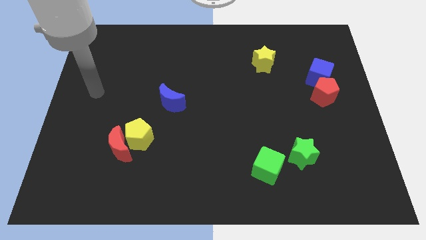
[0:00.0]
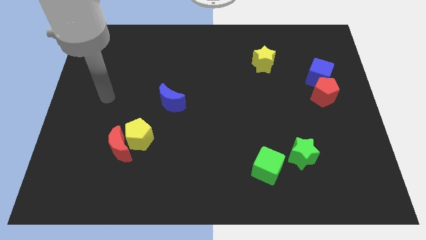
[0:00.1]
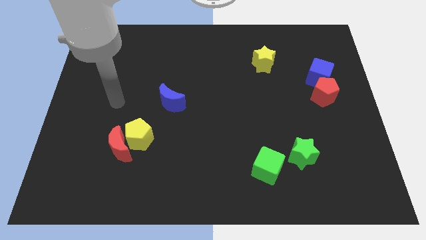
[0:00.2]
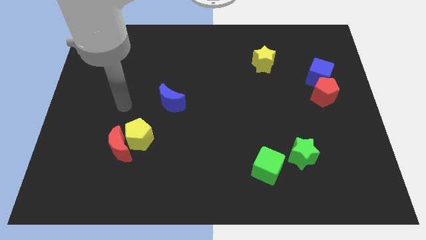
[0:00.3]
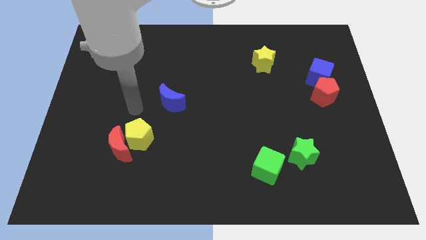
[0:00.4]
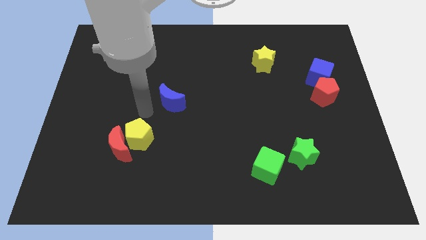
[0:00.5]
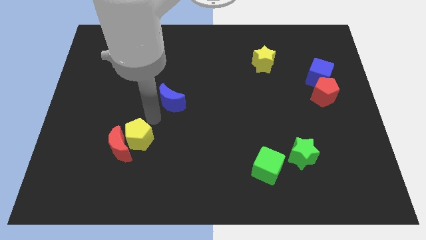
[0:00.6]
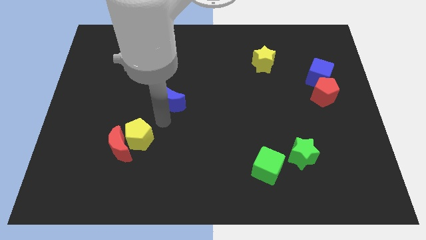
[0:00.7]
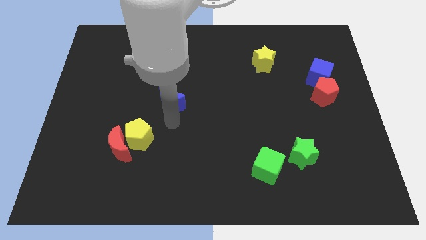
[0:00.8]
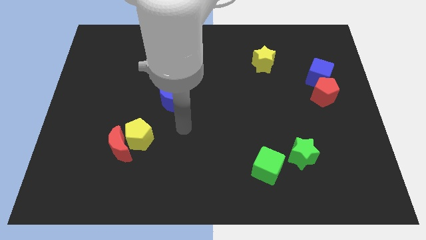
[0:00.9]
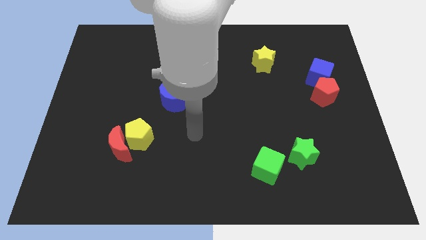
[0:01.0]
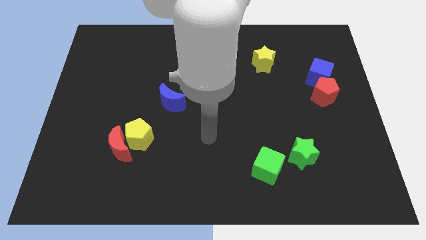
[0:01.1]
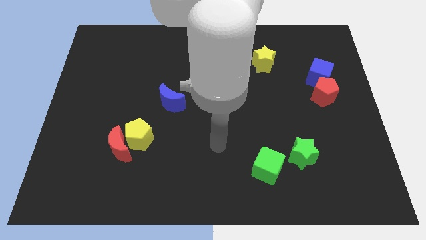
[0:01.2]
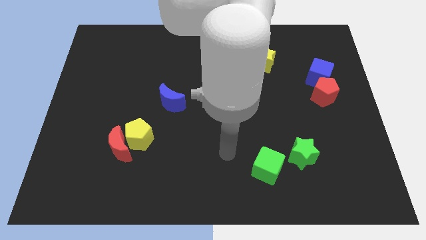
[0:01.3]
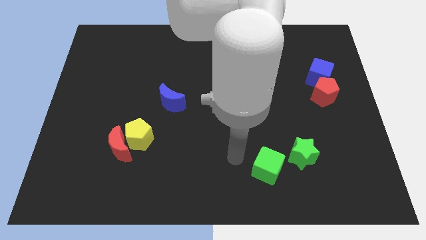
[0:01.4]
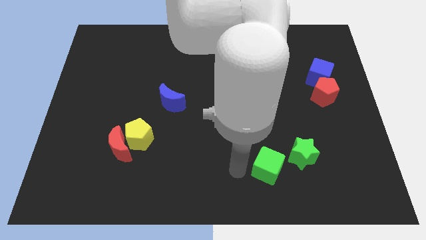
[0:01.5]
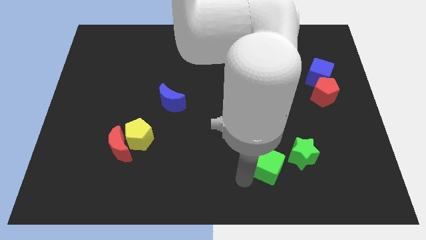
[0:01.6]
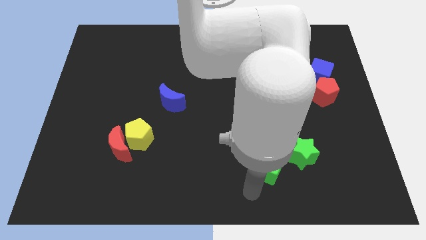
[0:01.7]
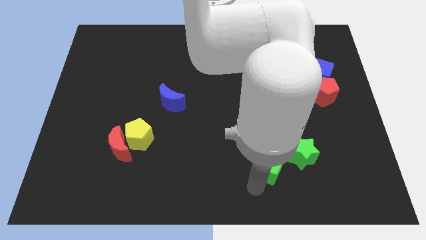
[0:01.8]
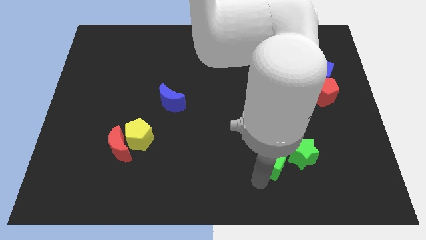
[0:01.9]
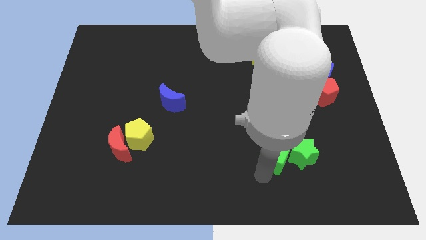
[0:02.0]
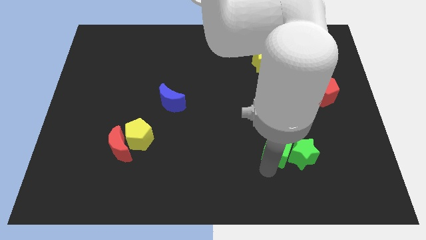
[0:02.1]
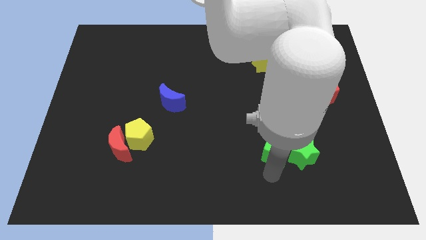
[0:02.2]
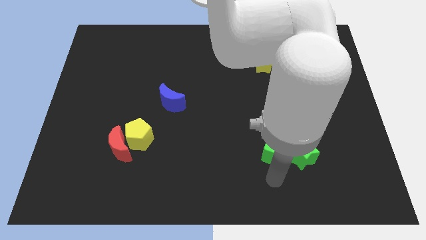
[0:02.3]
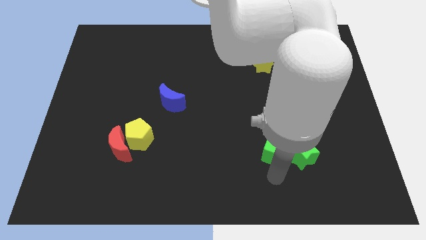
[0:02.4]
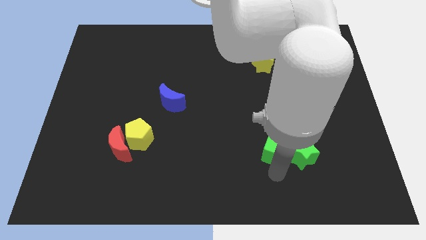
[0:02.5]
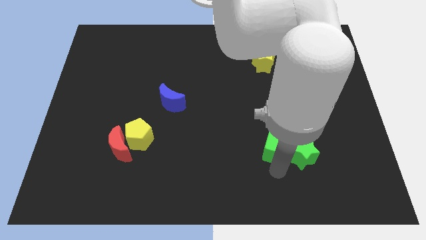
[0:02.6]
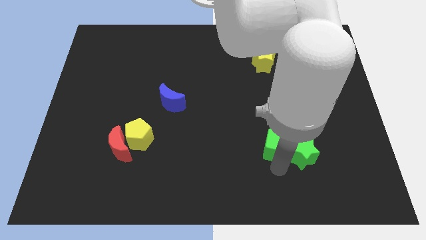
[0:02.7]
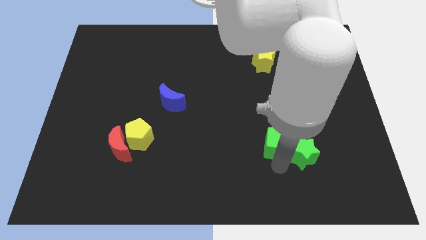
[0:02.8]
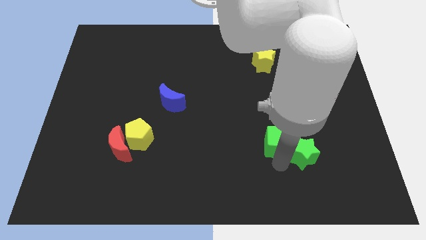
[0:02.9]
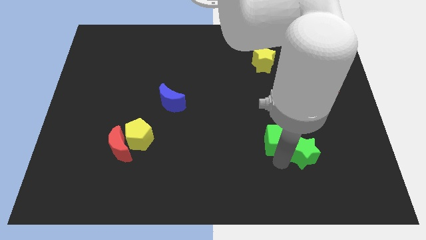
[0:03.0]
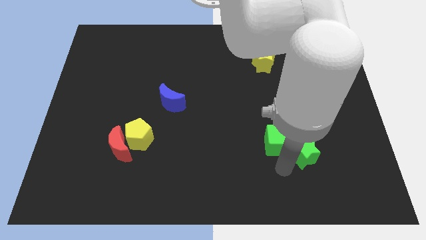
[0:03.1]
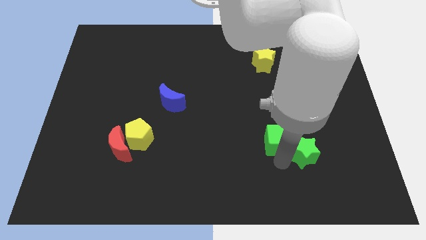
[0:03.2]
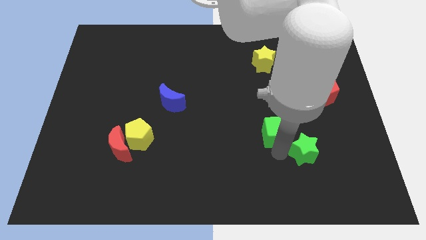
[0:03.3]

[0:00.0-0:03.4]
slightly push the green cube up

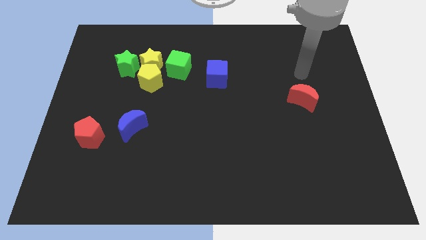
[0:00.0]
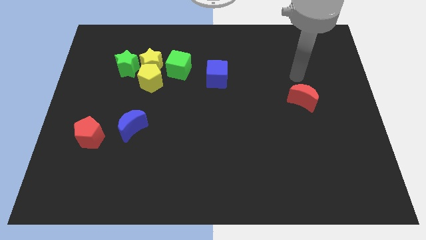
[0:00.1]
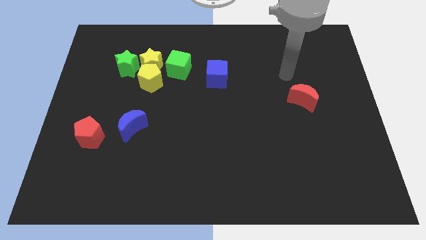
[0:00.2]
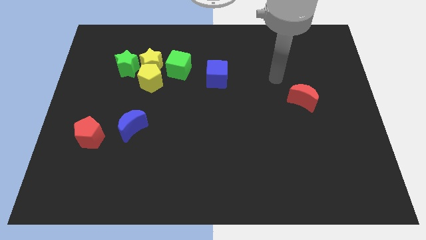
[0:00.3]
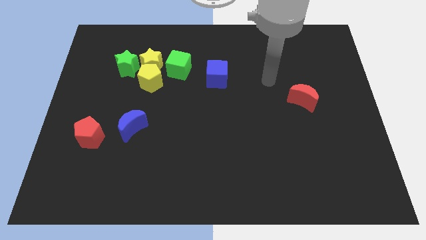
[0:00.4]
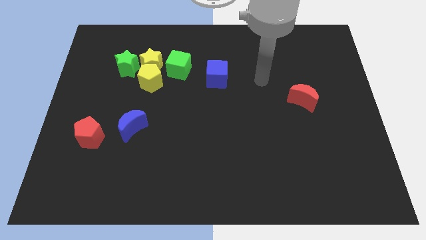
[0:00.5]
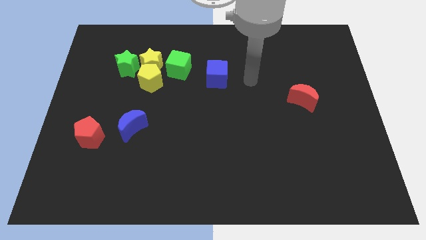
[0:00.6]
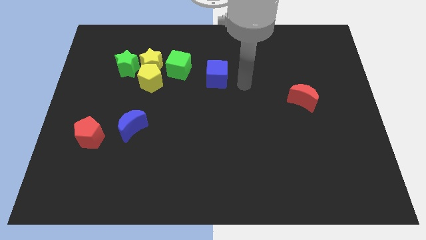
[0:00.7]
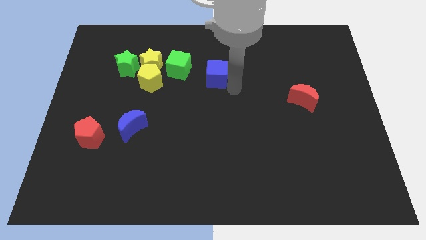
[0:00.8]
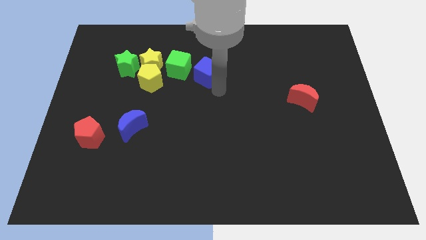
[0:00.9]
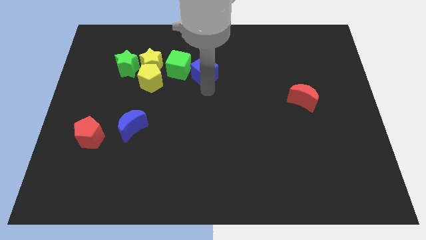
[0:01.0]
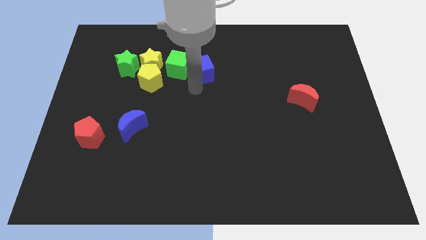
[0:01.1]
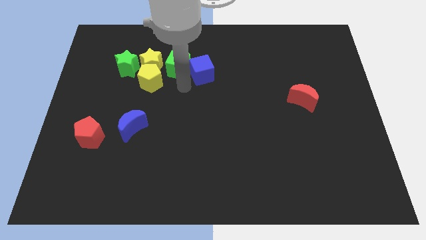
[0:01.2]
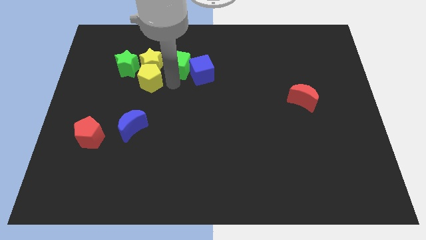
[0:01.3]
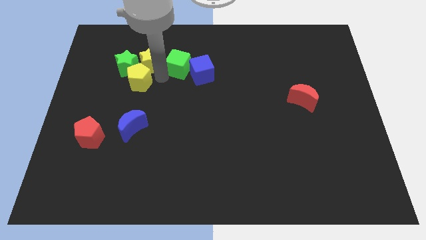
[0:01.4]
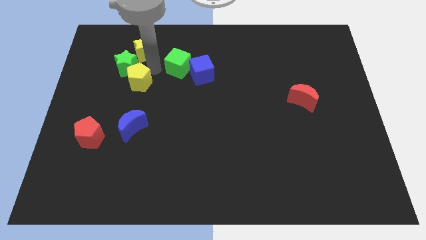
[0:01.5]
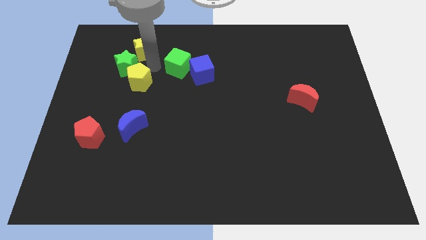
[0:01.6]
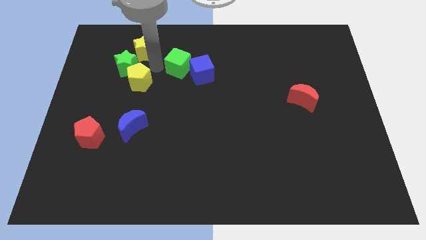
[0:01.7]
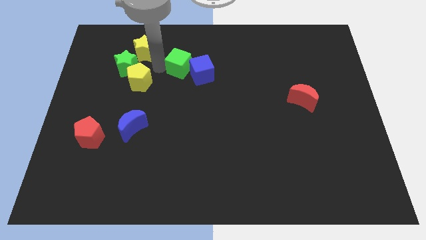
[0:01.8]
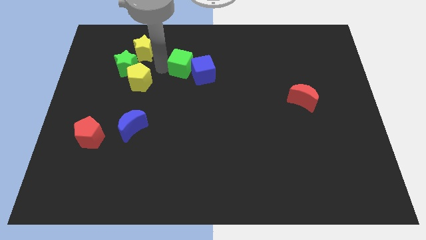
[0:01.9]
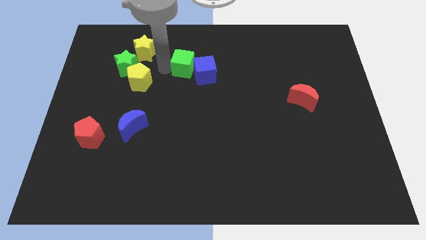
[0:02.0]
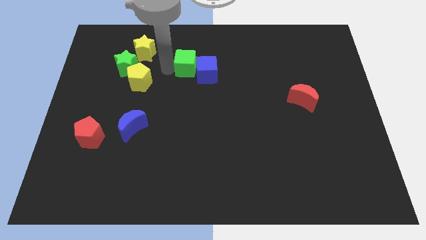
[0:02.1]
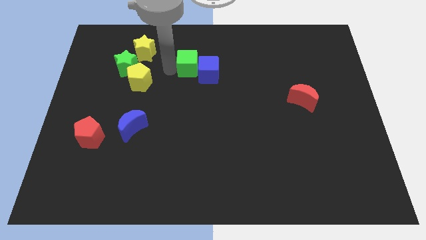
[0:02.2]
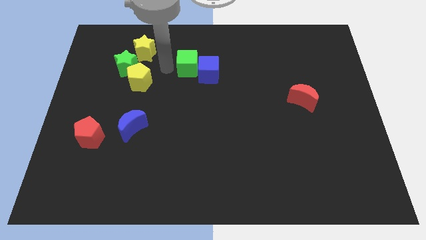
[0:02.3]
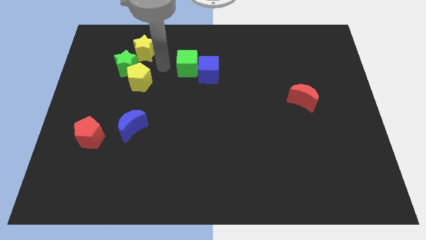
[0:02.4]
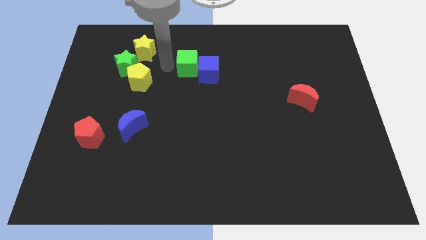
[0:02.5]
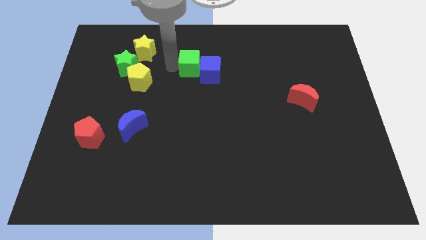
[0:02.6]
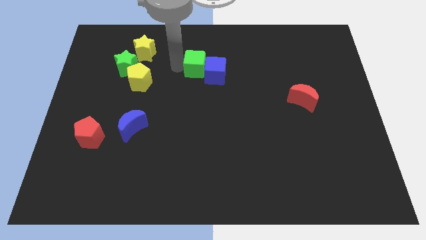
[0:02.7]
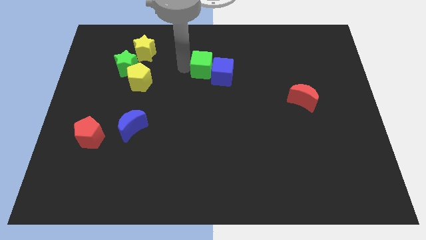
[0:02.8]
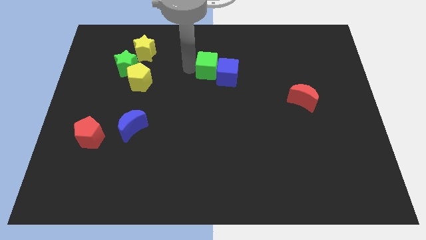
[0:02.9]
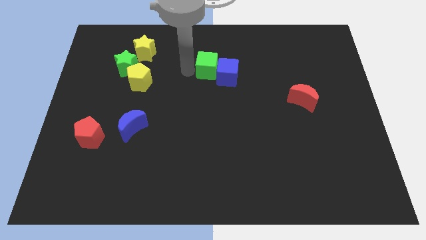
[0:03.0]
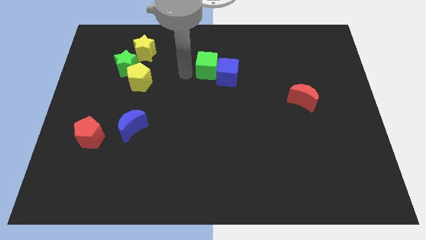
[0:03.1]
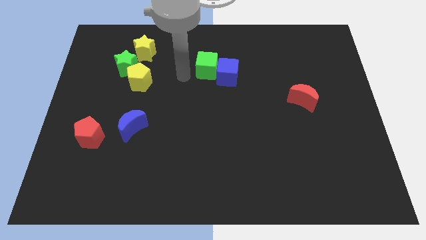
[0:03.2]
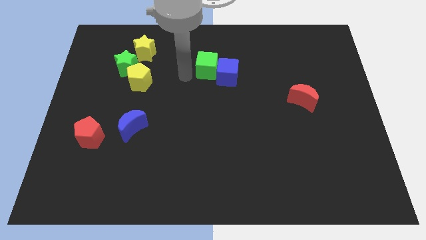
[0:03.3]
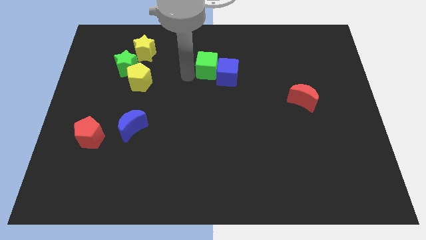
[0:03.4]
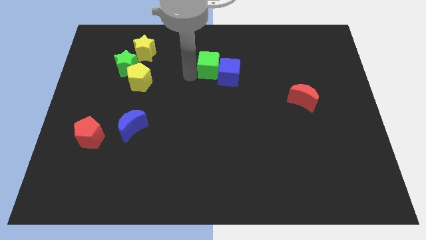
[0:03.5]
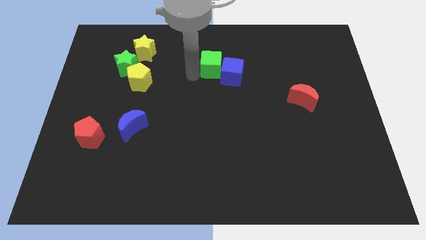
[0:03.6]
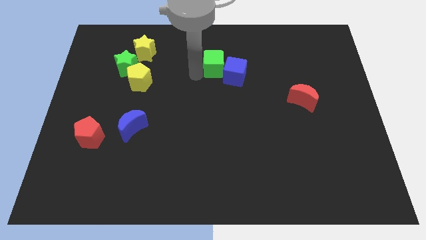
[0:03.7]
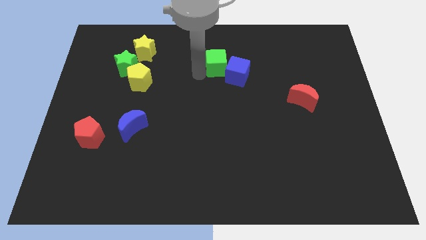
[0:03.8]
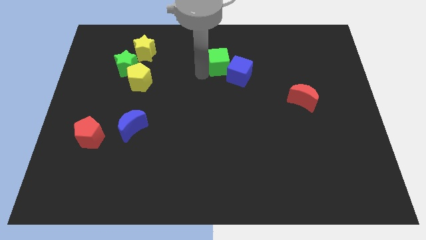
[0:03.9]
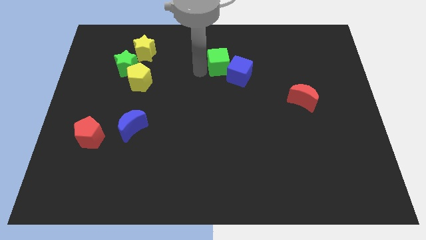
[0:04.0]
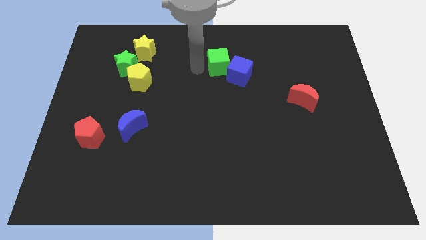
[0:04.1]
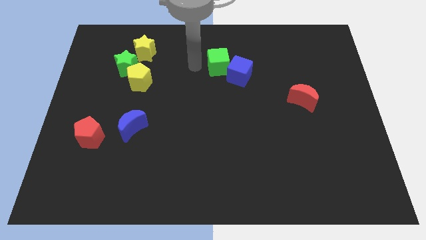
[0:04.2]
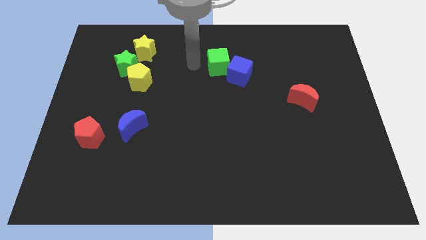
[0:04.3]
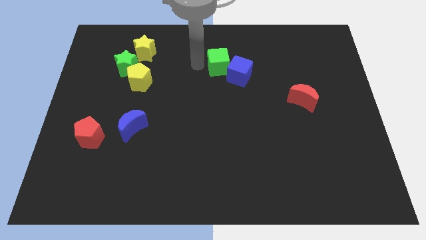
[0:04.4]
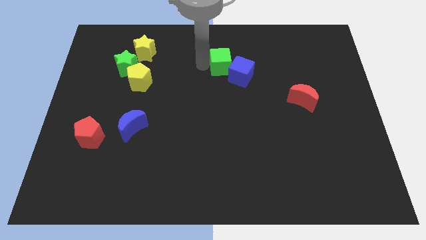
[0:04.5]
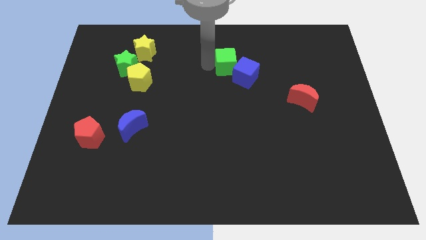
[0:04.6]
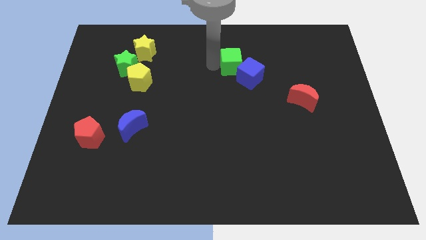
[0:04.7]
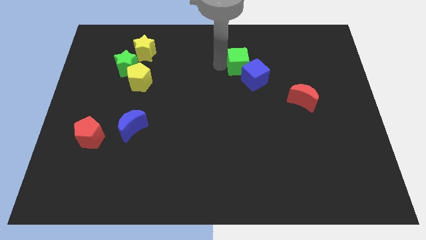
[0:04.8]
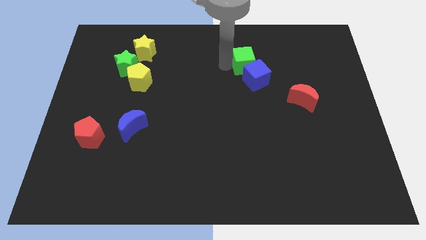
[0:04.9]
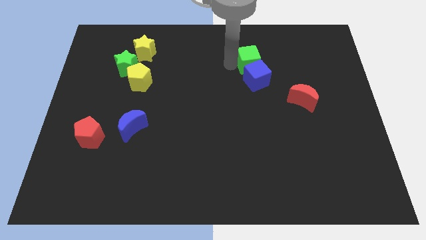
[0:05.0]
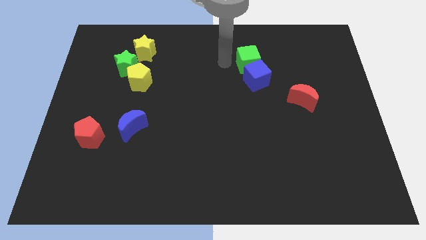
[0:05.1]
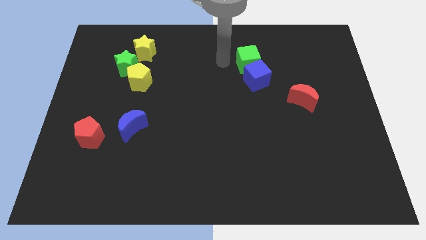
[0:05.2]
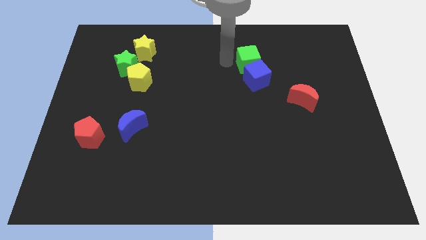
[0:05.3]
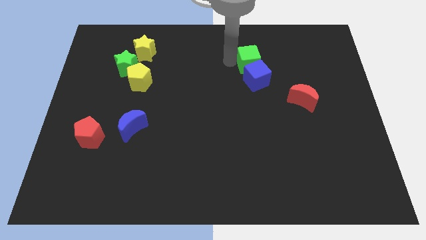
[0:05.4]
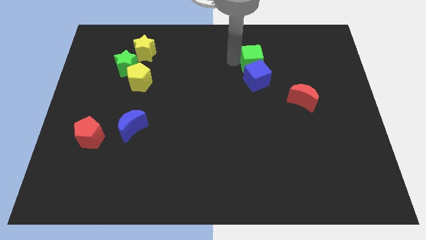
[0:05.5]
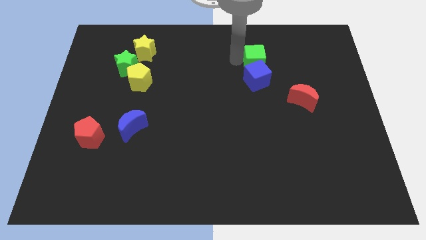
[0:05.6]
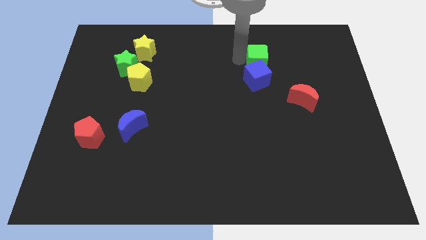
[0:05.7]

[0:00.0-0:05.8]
slide the green cube to the right
